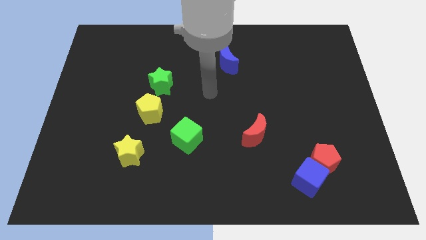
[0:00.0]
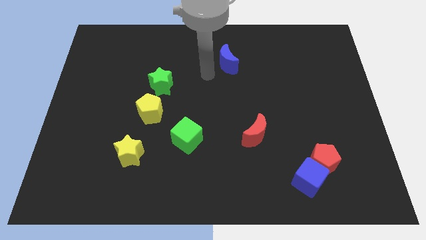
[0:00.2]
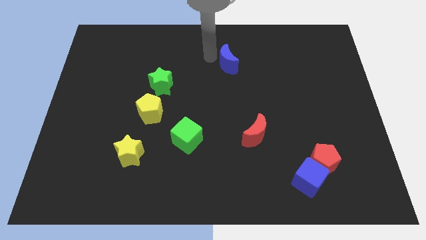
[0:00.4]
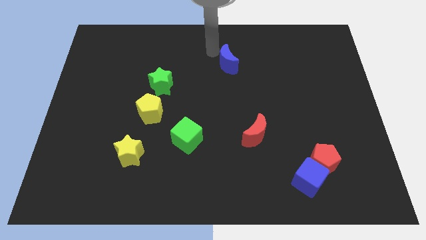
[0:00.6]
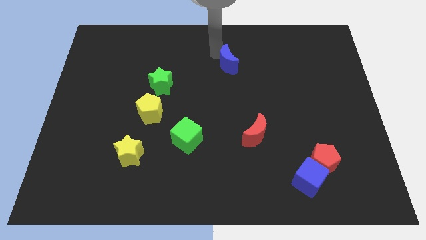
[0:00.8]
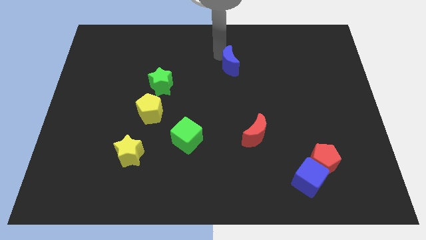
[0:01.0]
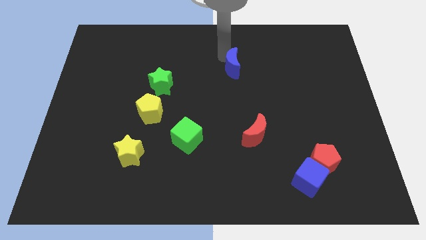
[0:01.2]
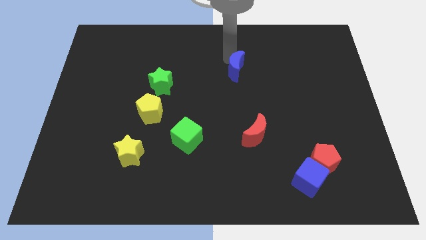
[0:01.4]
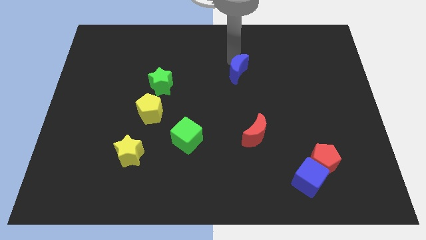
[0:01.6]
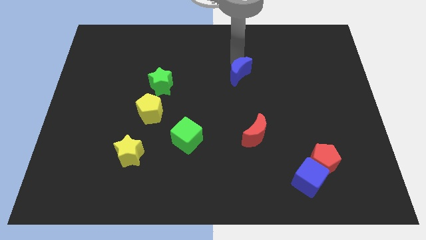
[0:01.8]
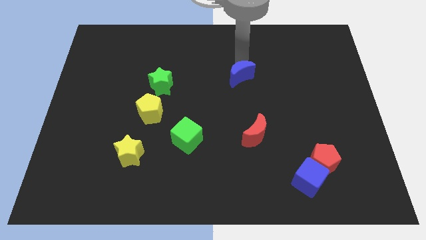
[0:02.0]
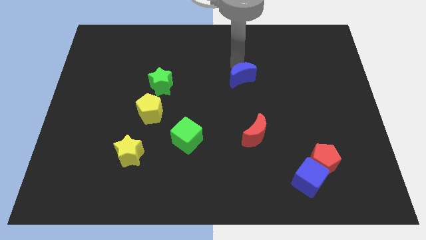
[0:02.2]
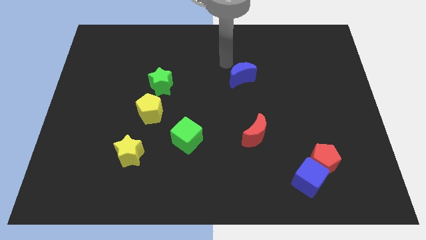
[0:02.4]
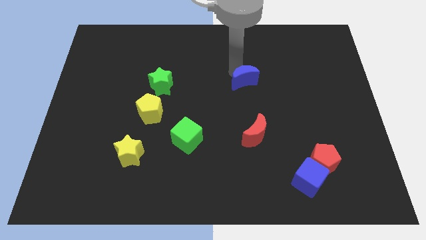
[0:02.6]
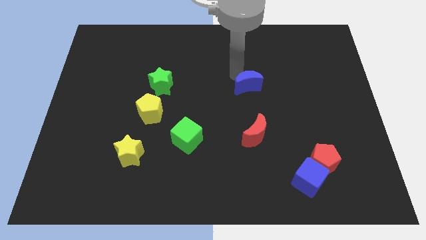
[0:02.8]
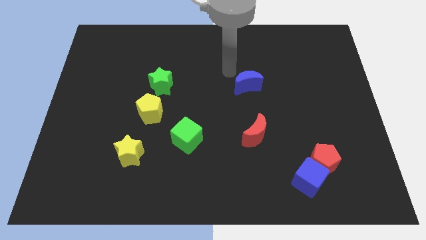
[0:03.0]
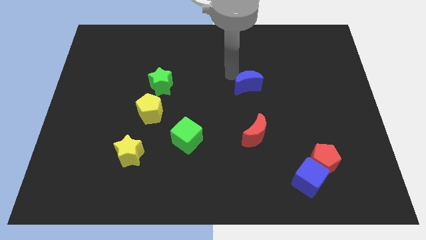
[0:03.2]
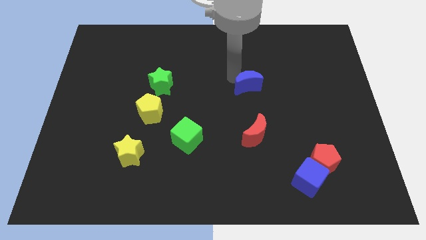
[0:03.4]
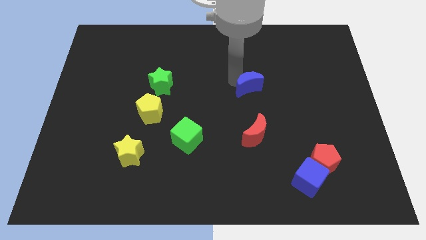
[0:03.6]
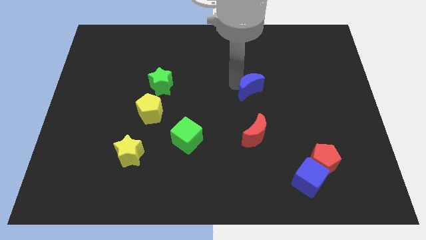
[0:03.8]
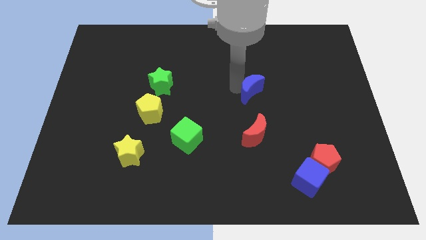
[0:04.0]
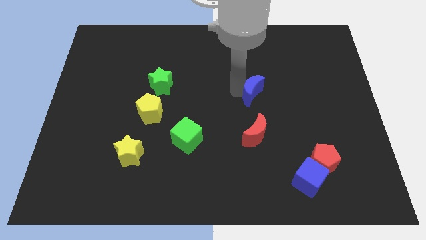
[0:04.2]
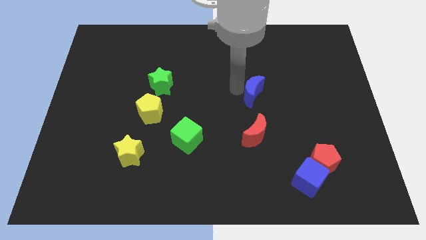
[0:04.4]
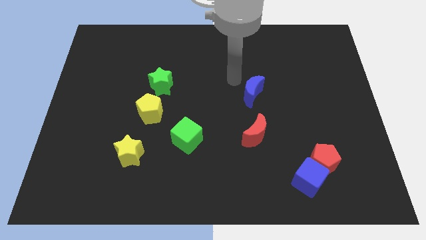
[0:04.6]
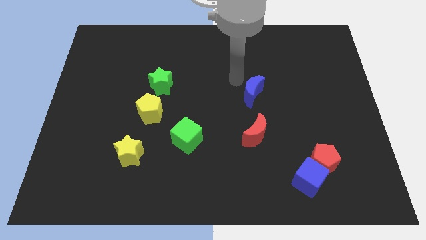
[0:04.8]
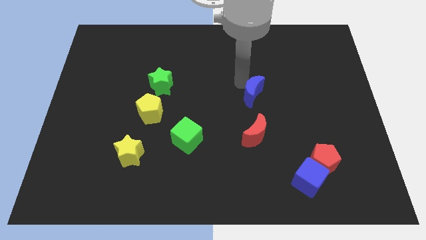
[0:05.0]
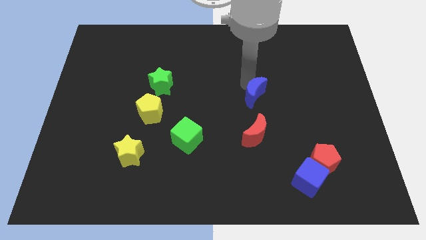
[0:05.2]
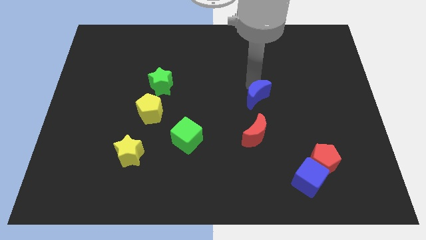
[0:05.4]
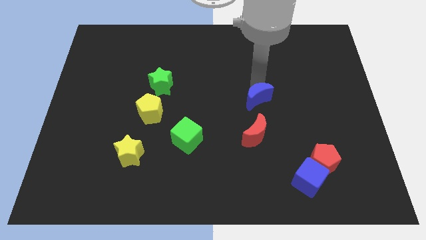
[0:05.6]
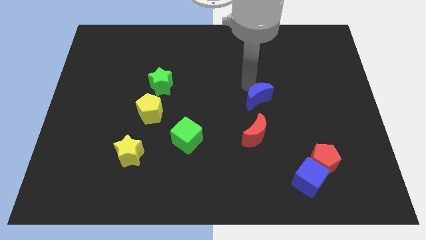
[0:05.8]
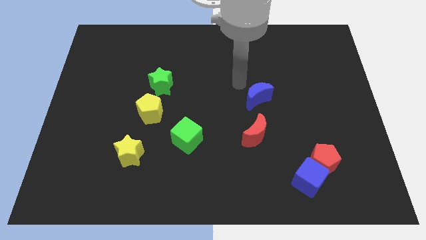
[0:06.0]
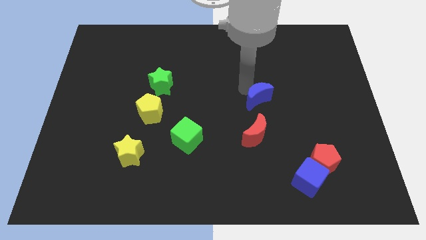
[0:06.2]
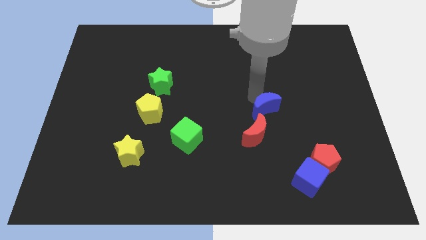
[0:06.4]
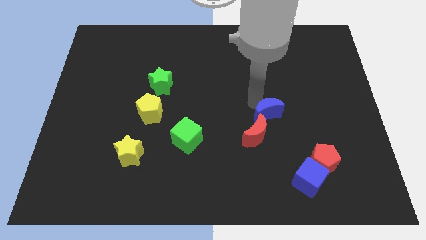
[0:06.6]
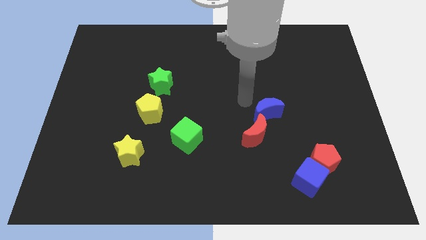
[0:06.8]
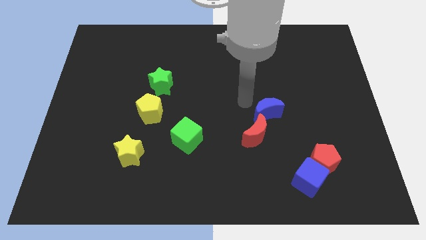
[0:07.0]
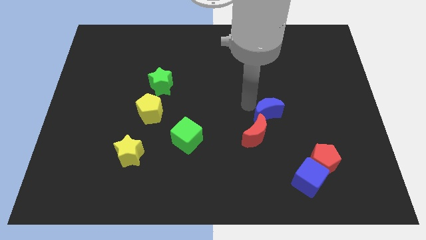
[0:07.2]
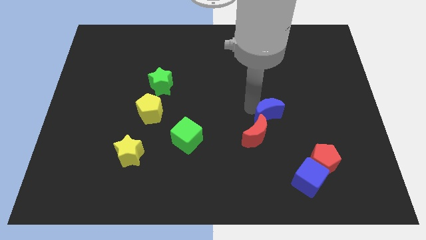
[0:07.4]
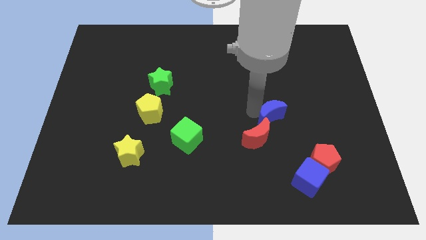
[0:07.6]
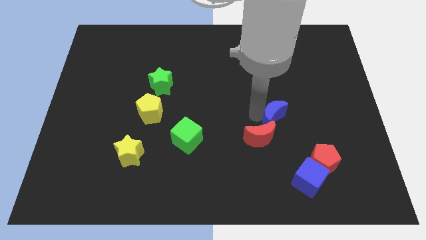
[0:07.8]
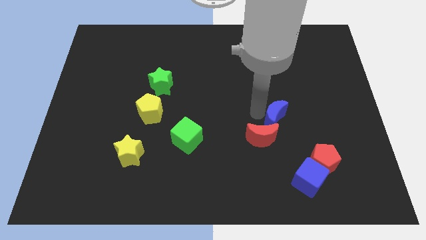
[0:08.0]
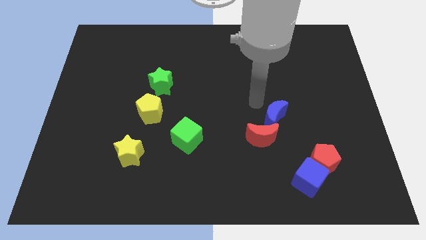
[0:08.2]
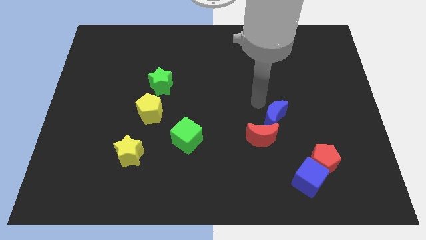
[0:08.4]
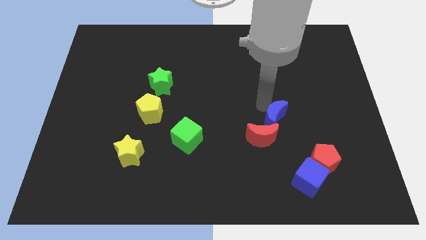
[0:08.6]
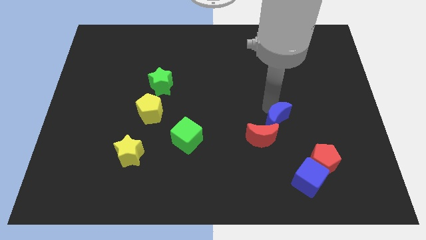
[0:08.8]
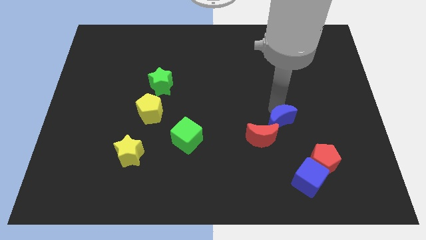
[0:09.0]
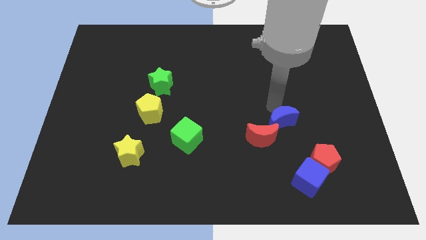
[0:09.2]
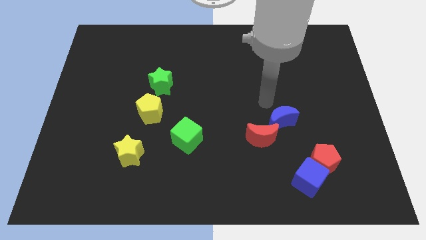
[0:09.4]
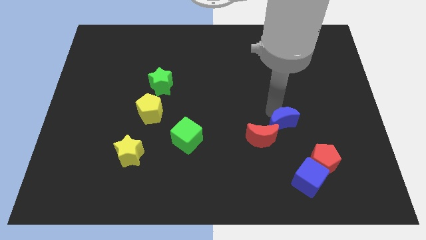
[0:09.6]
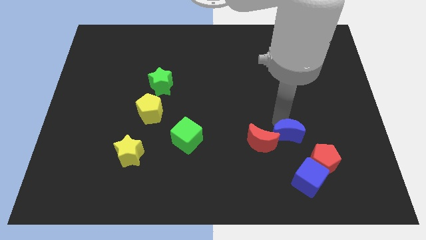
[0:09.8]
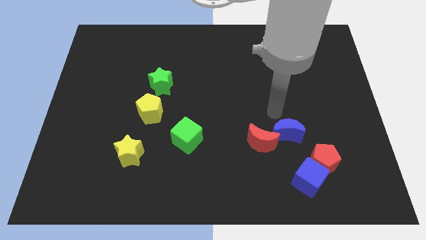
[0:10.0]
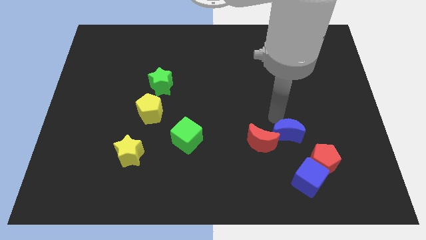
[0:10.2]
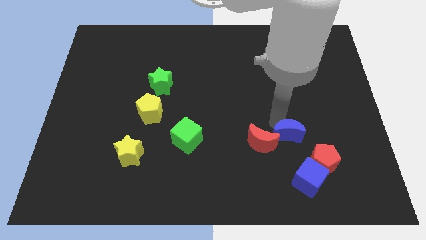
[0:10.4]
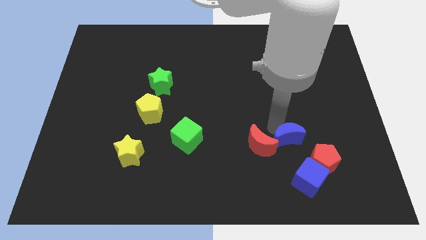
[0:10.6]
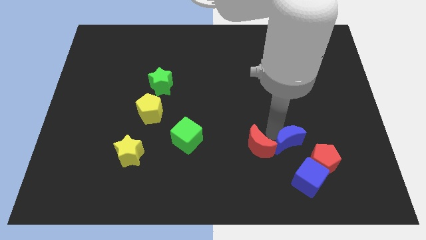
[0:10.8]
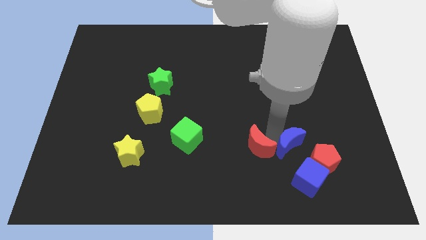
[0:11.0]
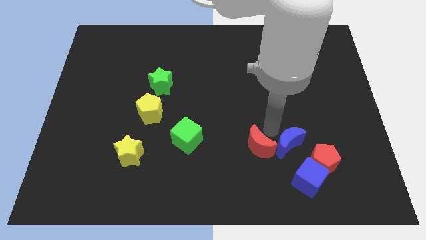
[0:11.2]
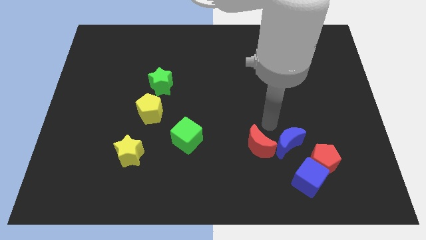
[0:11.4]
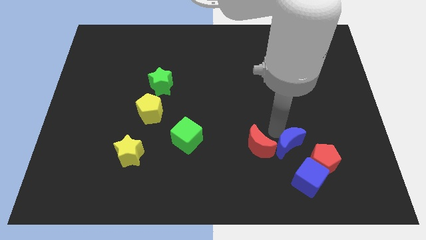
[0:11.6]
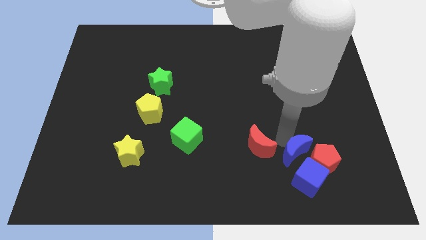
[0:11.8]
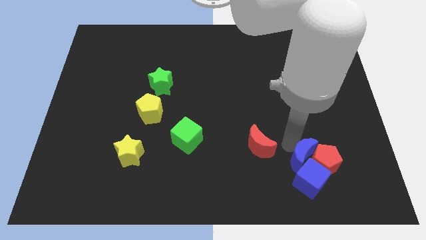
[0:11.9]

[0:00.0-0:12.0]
move the blue moon close to the blue cube

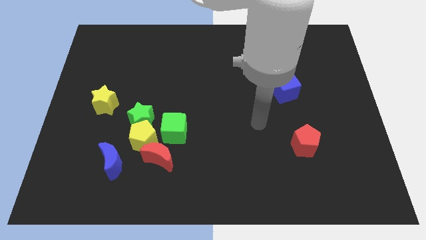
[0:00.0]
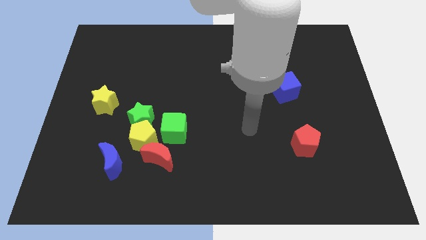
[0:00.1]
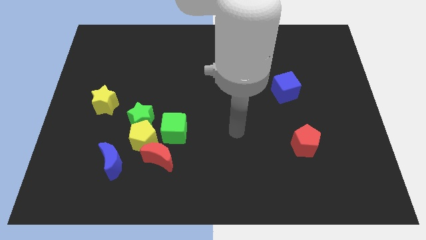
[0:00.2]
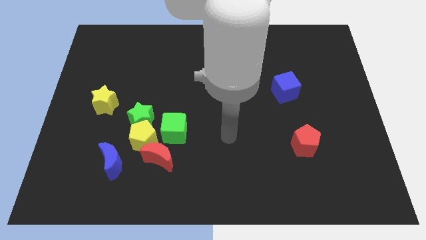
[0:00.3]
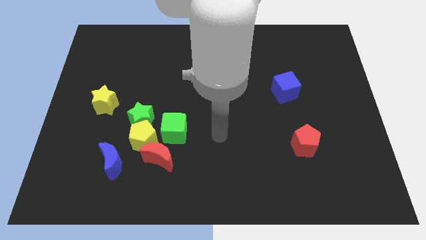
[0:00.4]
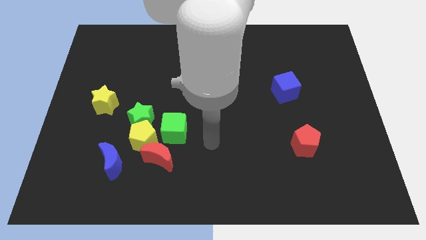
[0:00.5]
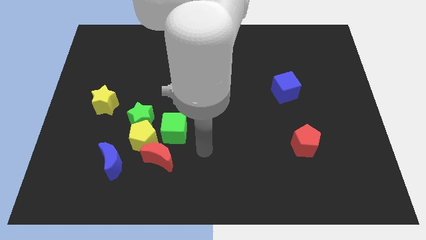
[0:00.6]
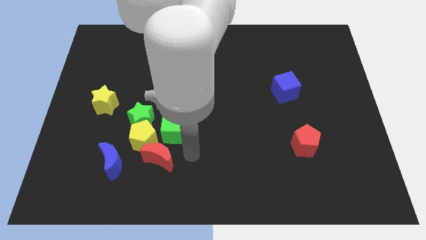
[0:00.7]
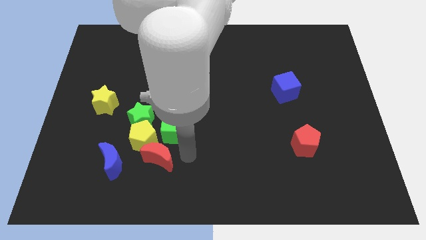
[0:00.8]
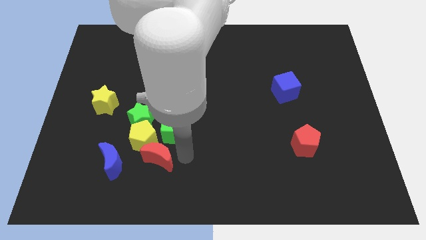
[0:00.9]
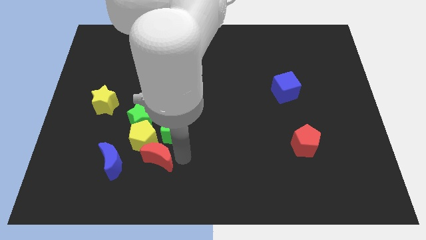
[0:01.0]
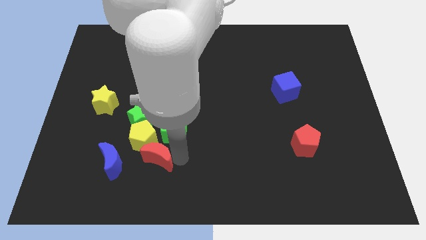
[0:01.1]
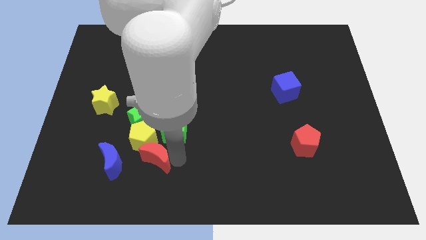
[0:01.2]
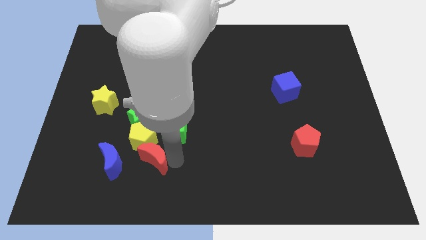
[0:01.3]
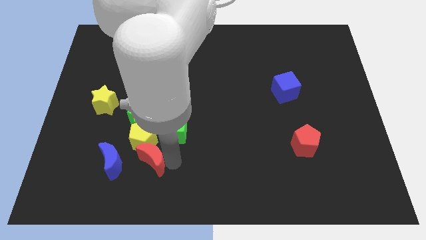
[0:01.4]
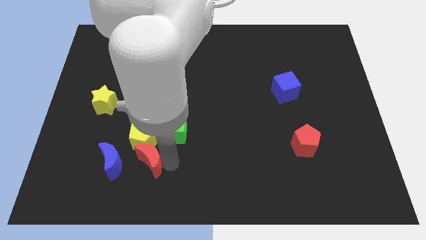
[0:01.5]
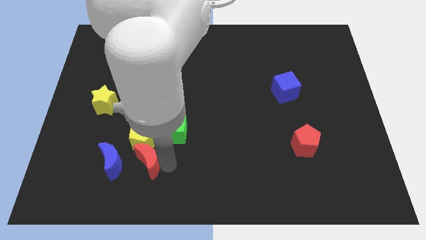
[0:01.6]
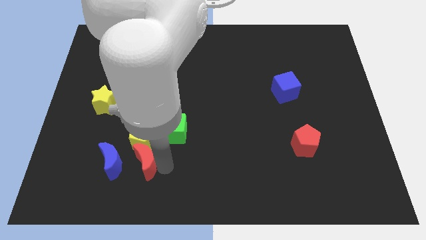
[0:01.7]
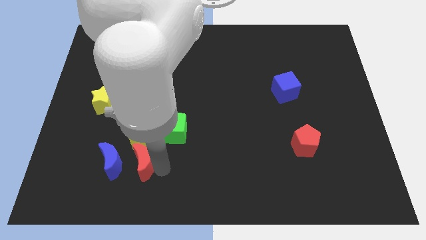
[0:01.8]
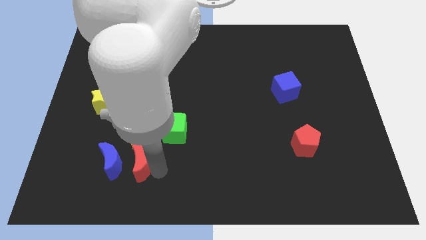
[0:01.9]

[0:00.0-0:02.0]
put the red moon to the blue moon
